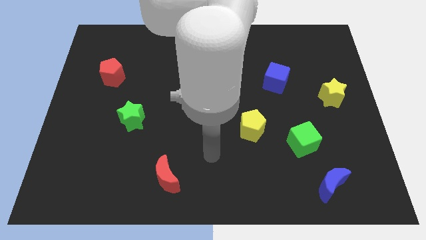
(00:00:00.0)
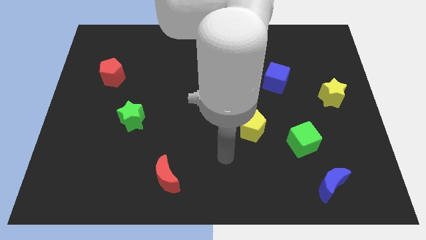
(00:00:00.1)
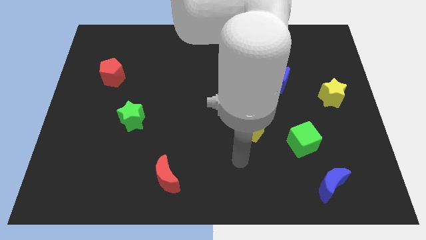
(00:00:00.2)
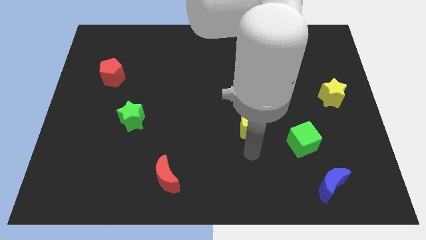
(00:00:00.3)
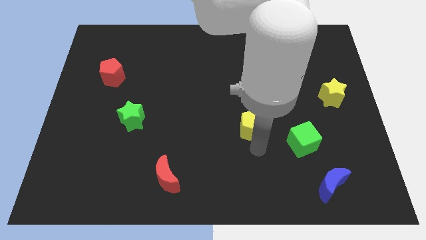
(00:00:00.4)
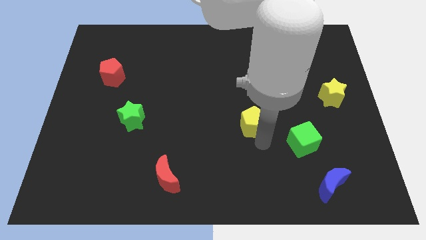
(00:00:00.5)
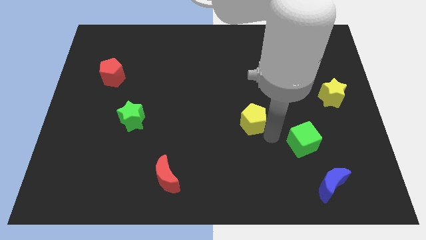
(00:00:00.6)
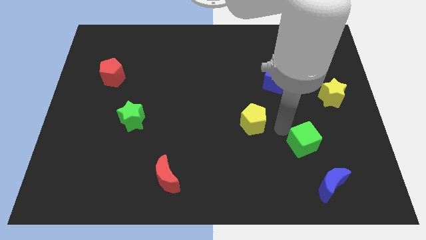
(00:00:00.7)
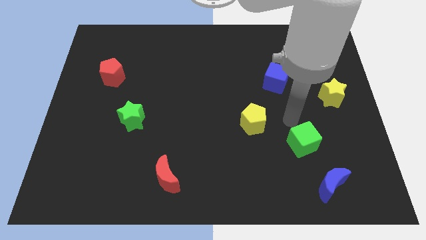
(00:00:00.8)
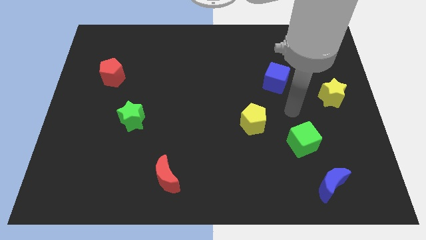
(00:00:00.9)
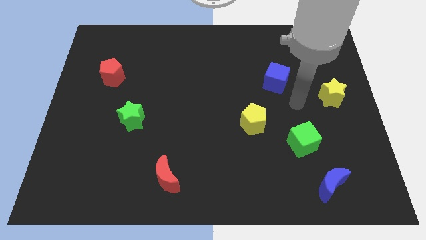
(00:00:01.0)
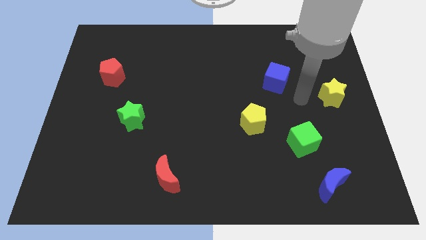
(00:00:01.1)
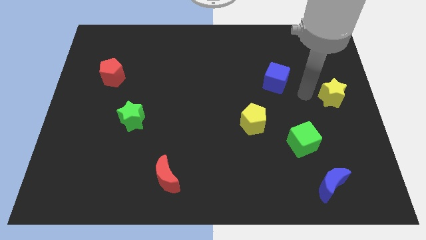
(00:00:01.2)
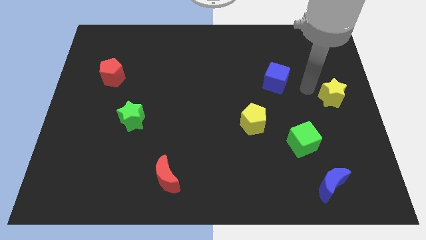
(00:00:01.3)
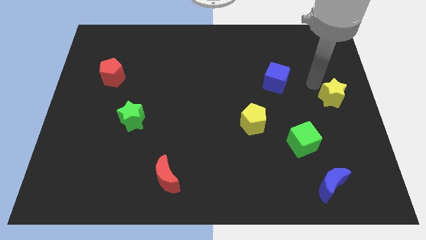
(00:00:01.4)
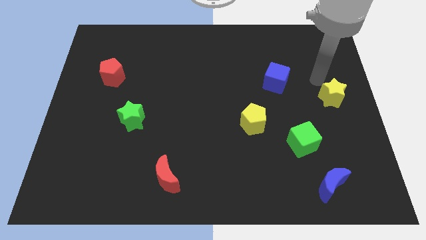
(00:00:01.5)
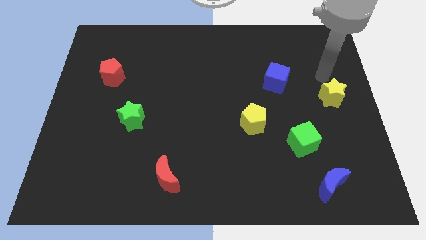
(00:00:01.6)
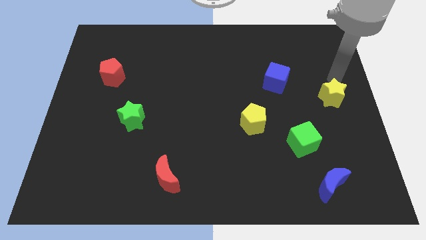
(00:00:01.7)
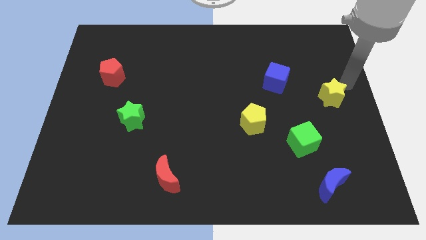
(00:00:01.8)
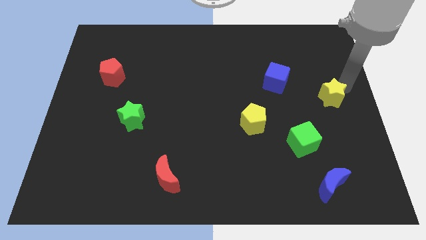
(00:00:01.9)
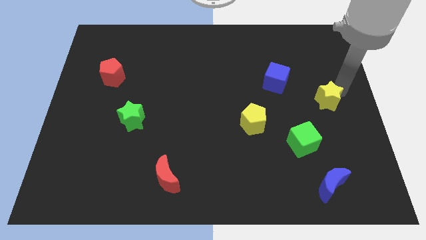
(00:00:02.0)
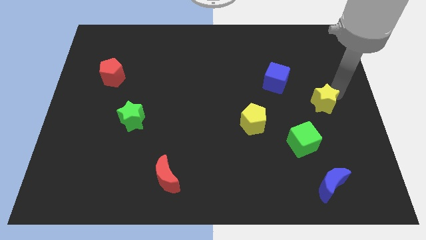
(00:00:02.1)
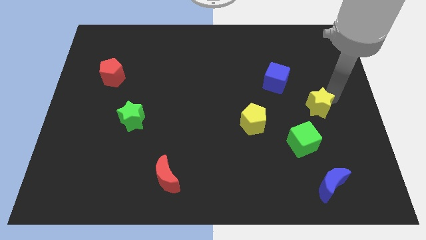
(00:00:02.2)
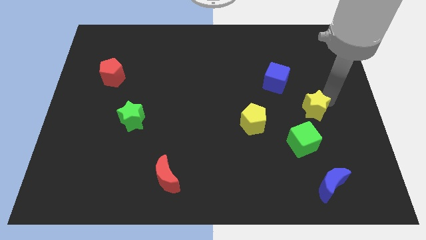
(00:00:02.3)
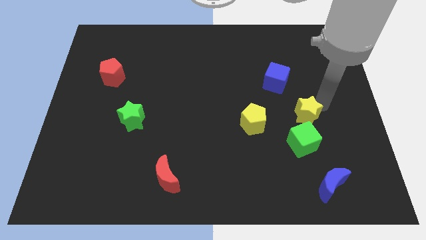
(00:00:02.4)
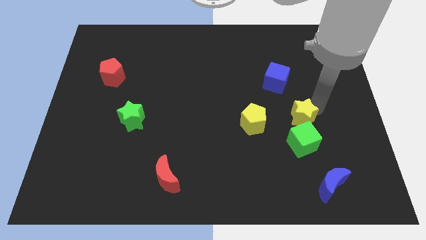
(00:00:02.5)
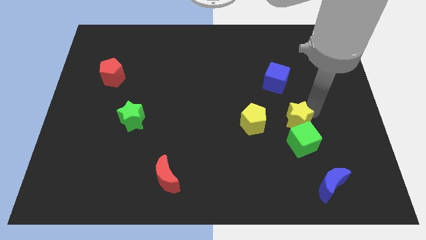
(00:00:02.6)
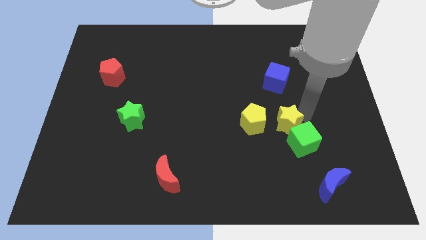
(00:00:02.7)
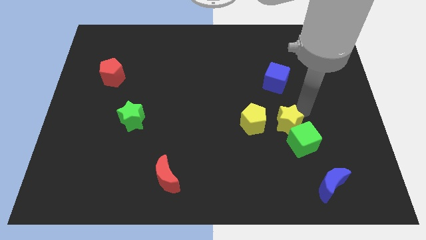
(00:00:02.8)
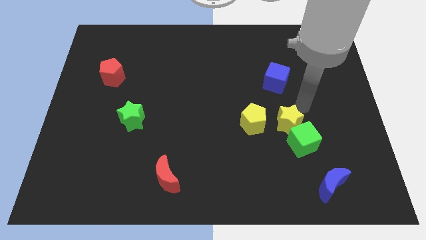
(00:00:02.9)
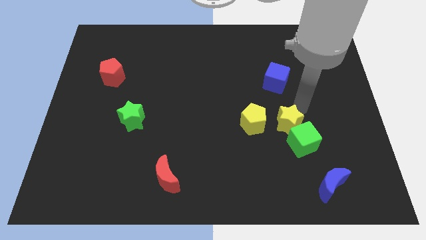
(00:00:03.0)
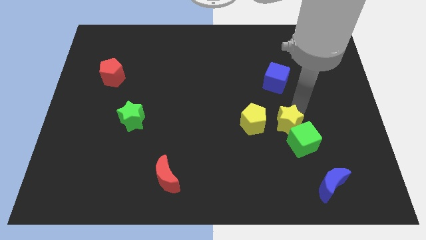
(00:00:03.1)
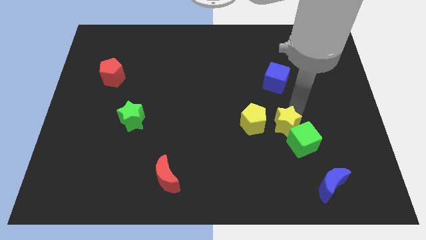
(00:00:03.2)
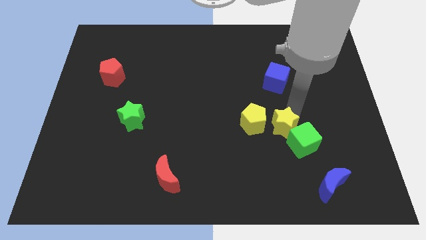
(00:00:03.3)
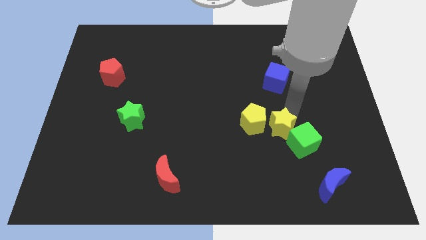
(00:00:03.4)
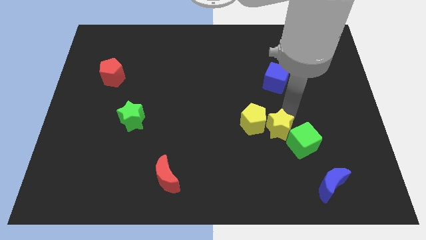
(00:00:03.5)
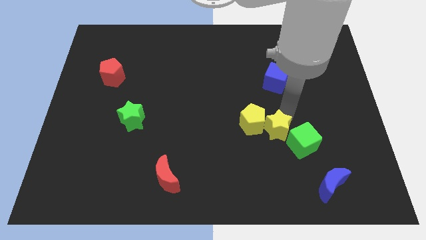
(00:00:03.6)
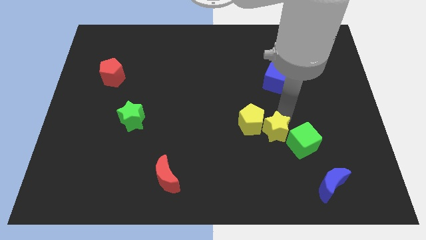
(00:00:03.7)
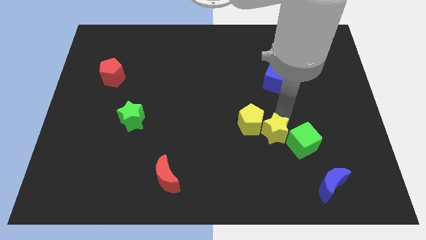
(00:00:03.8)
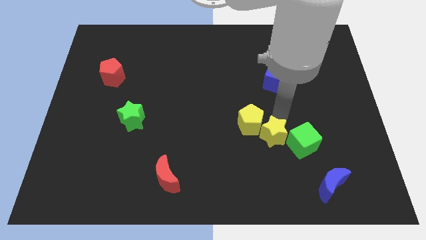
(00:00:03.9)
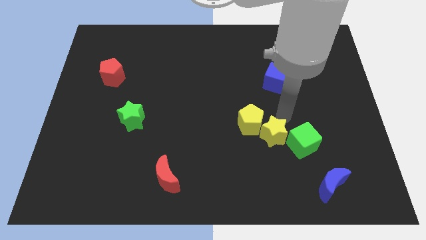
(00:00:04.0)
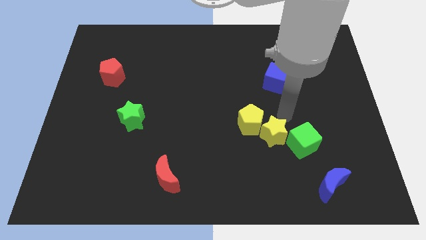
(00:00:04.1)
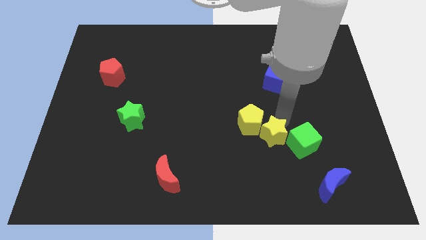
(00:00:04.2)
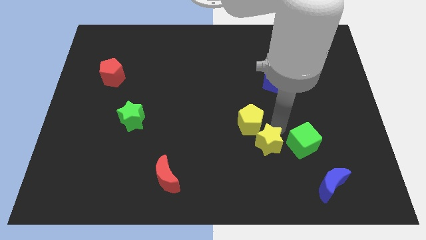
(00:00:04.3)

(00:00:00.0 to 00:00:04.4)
slide the yellow star down and to the left diagonally

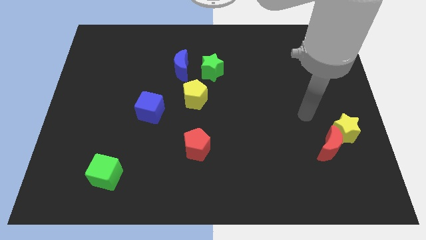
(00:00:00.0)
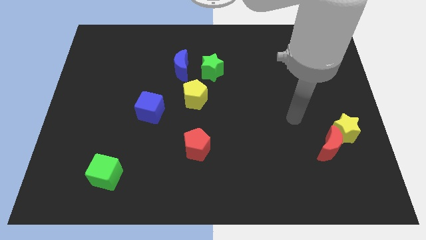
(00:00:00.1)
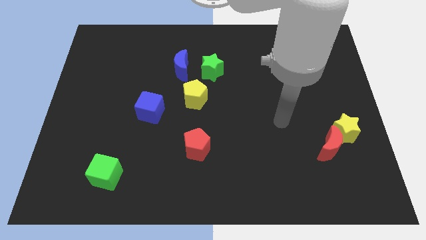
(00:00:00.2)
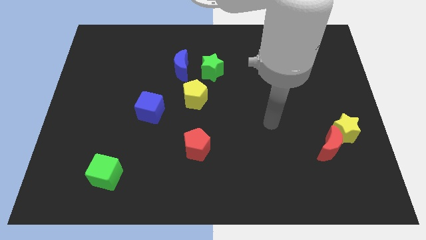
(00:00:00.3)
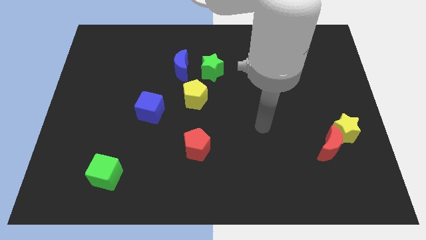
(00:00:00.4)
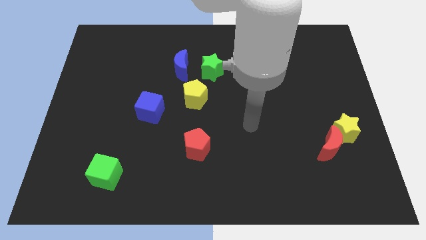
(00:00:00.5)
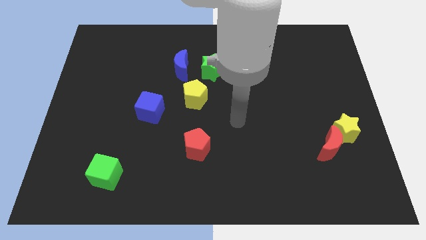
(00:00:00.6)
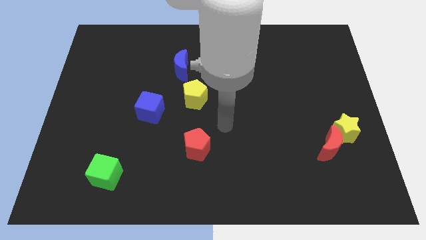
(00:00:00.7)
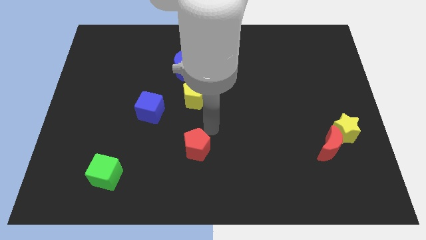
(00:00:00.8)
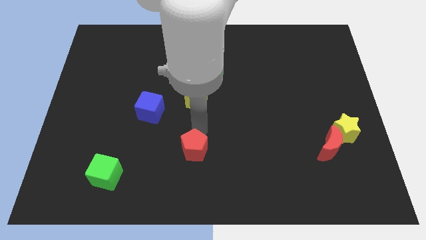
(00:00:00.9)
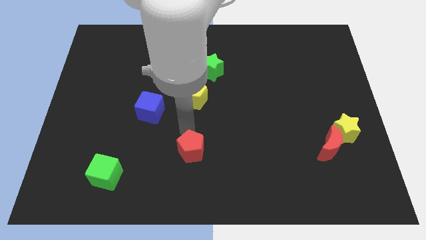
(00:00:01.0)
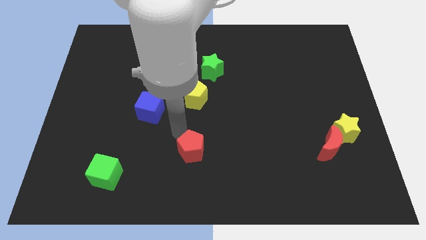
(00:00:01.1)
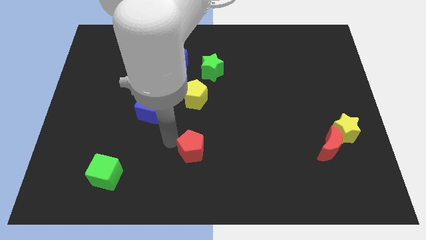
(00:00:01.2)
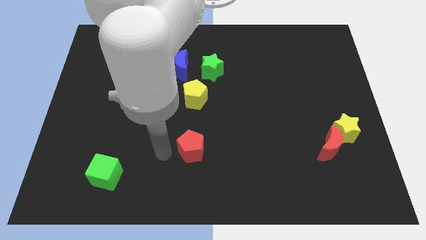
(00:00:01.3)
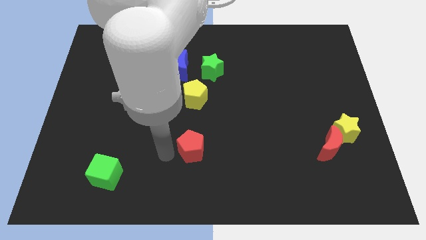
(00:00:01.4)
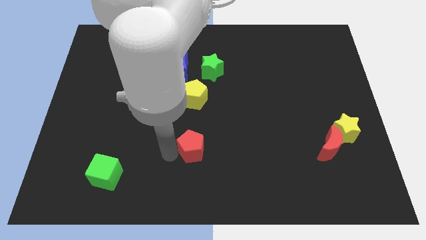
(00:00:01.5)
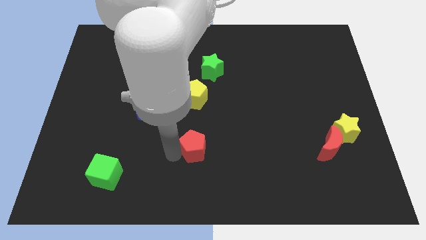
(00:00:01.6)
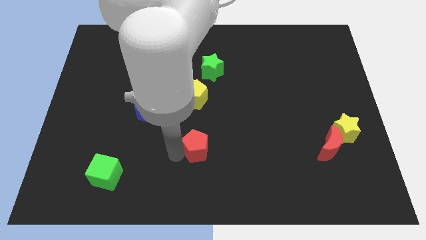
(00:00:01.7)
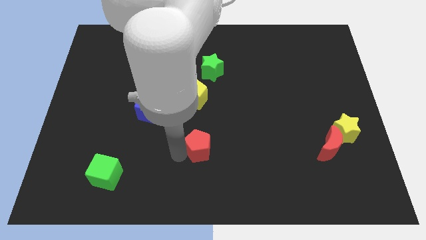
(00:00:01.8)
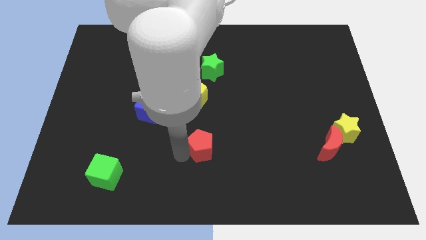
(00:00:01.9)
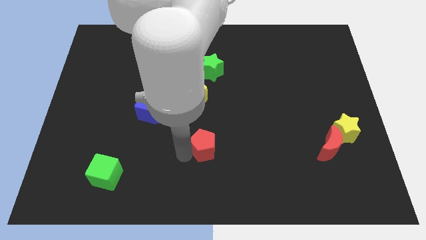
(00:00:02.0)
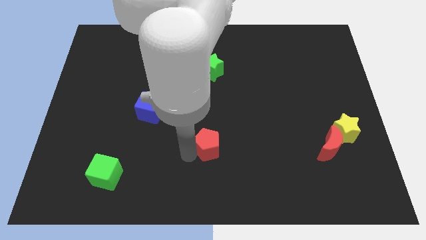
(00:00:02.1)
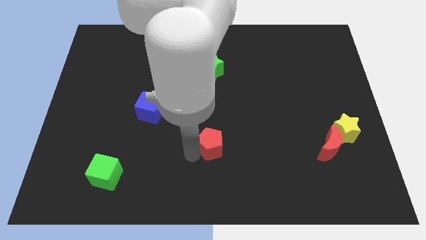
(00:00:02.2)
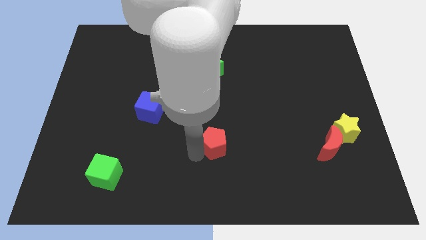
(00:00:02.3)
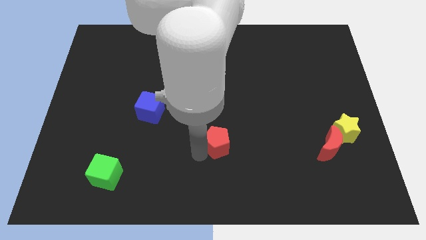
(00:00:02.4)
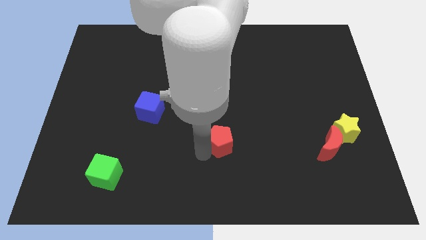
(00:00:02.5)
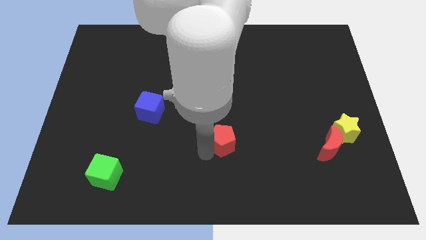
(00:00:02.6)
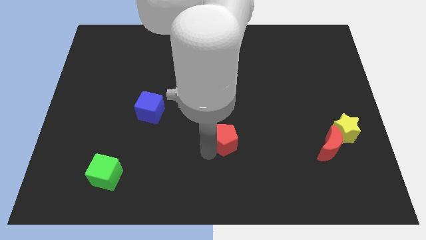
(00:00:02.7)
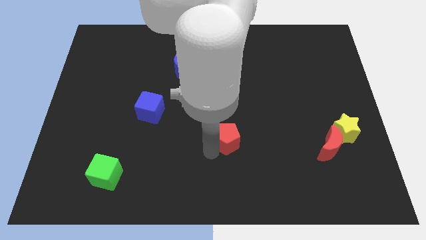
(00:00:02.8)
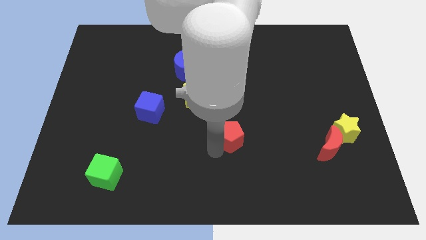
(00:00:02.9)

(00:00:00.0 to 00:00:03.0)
move the red pentagon a bit to the right
